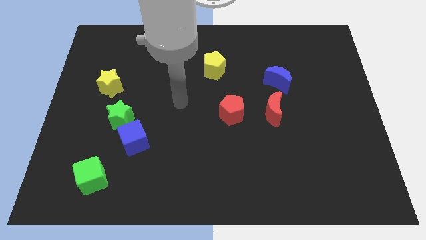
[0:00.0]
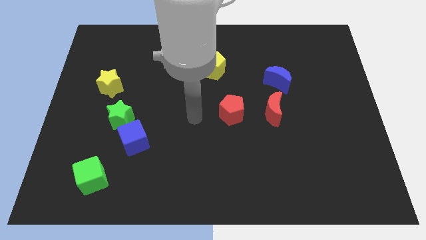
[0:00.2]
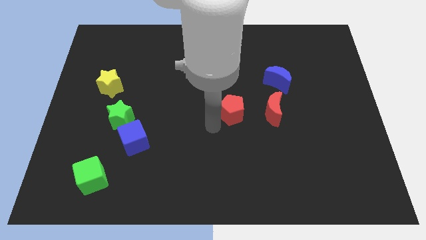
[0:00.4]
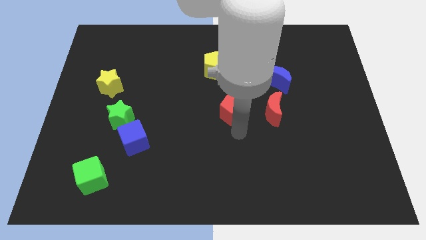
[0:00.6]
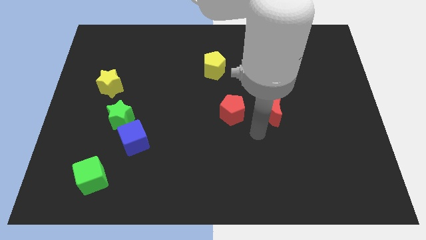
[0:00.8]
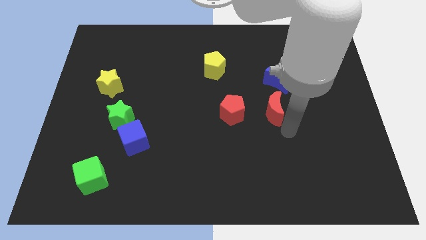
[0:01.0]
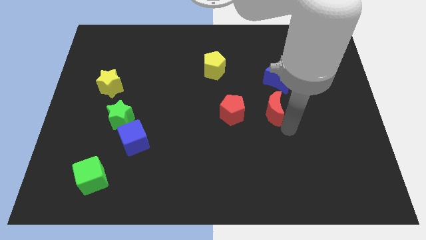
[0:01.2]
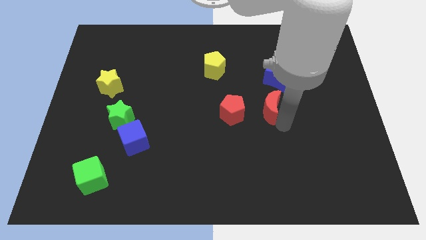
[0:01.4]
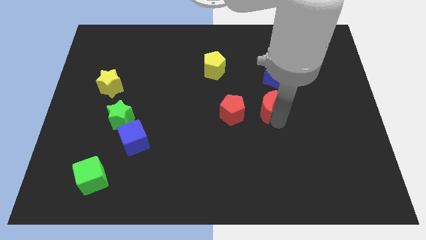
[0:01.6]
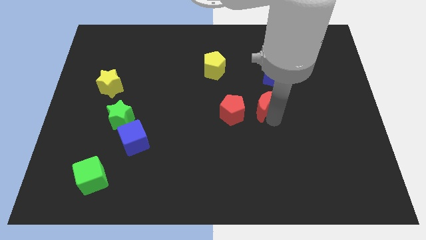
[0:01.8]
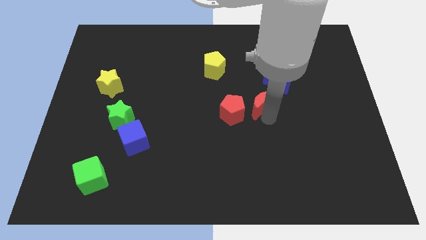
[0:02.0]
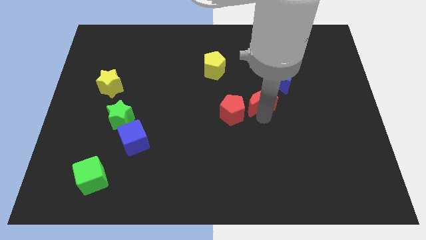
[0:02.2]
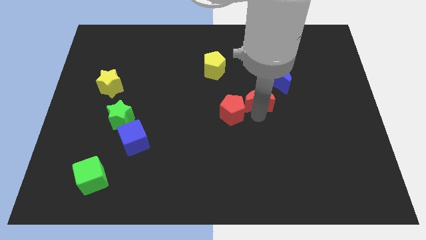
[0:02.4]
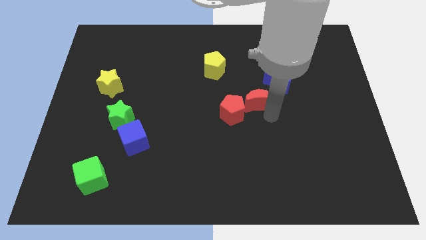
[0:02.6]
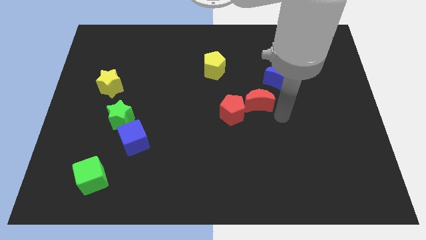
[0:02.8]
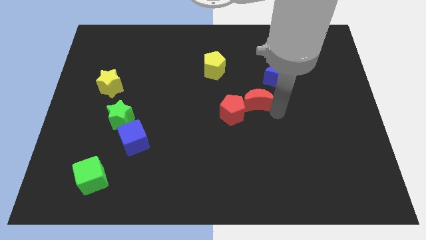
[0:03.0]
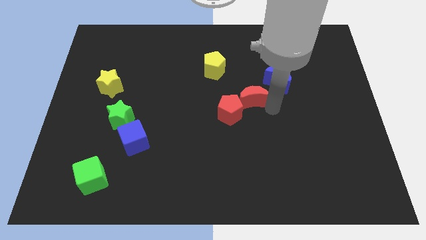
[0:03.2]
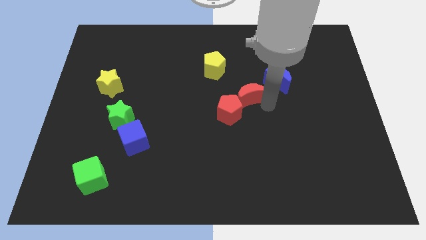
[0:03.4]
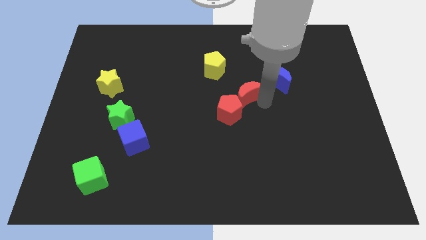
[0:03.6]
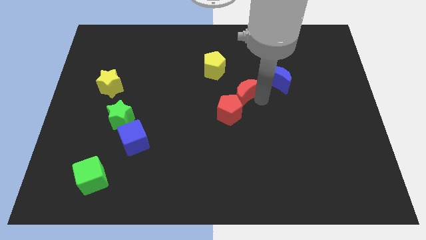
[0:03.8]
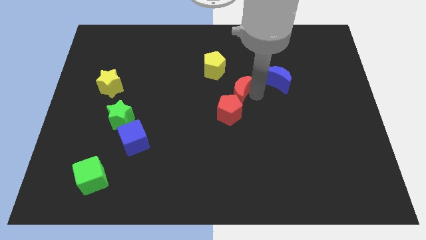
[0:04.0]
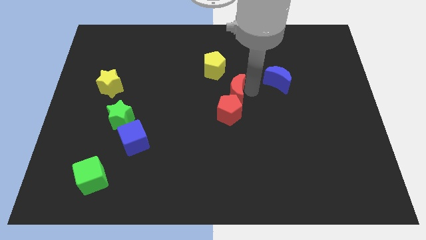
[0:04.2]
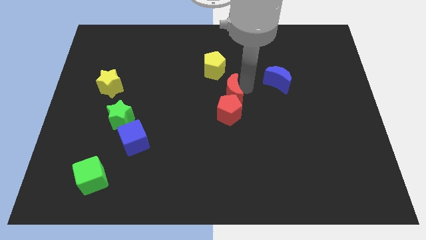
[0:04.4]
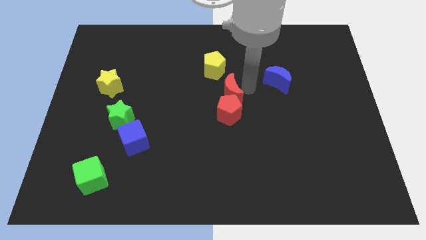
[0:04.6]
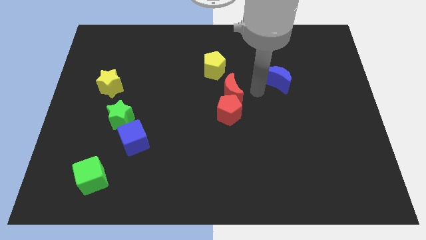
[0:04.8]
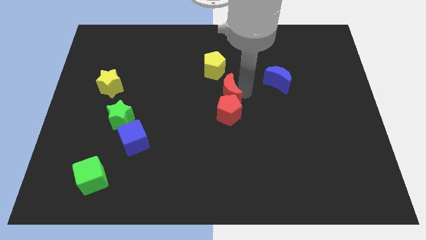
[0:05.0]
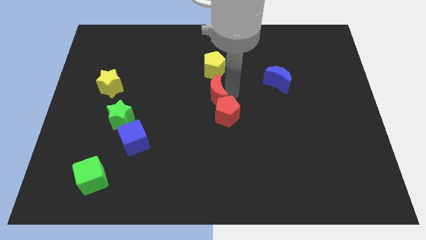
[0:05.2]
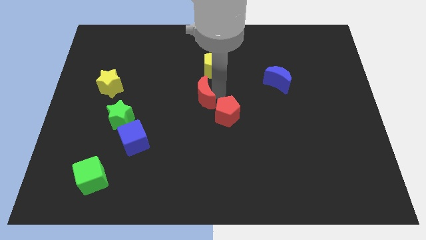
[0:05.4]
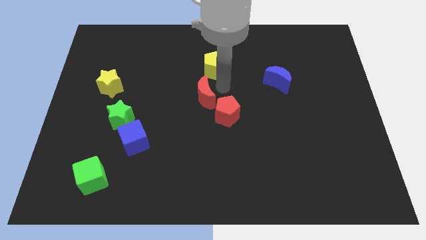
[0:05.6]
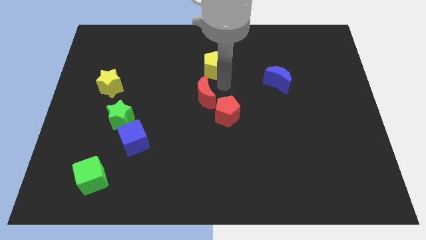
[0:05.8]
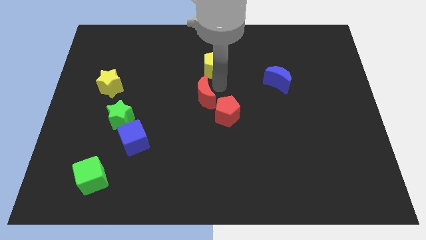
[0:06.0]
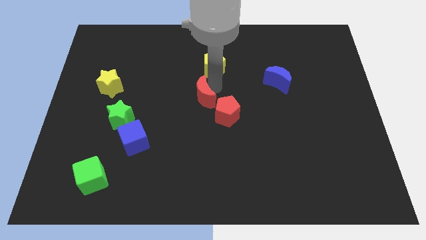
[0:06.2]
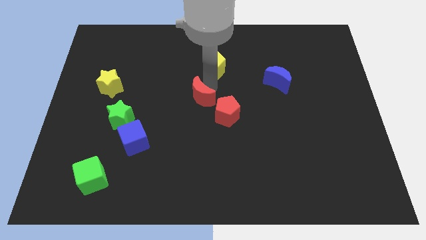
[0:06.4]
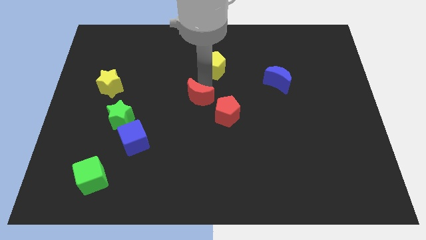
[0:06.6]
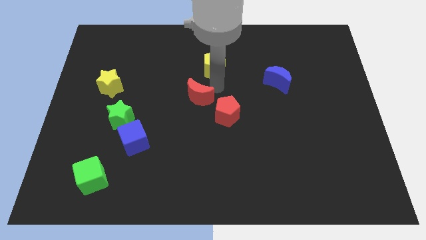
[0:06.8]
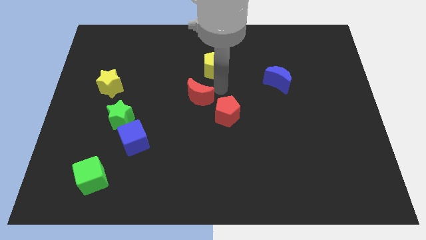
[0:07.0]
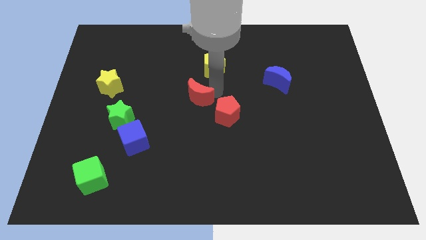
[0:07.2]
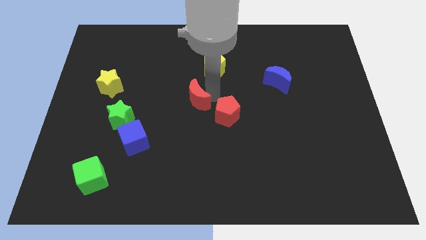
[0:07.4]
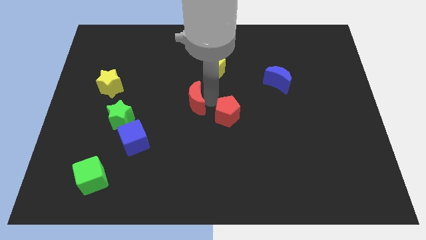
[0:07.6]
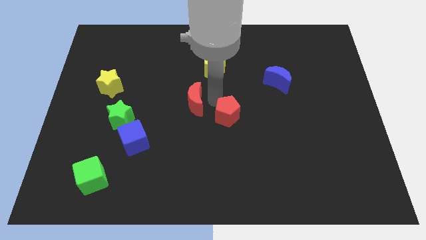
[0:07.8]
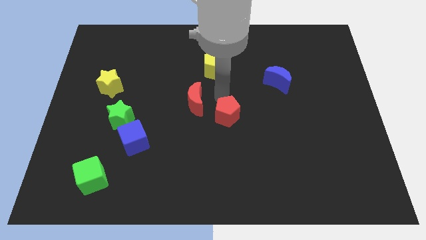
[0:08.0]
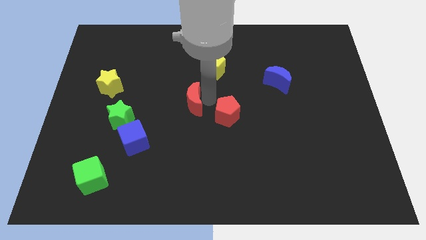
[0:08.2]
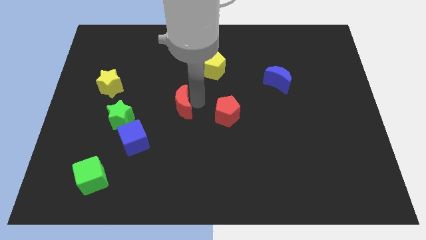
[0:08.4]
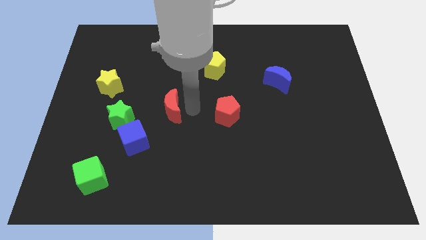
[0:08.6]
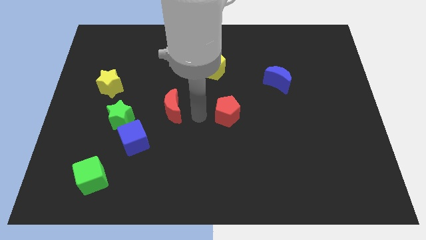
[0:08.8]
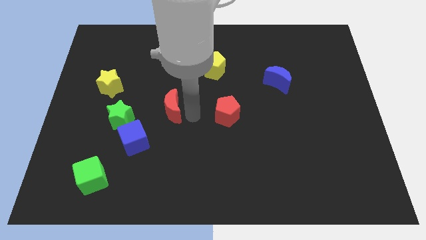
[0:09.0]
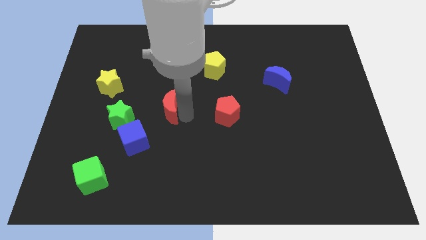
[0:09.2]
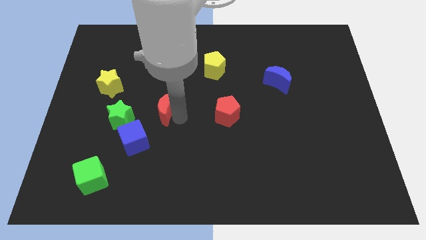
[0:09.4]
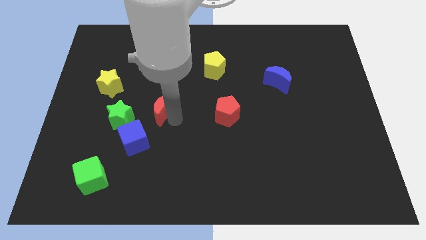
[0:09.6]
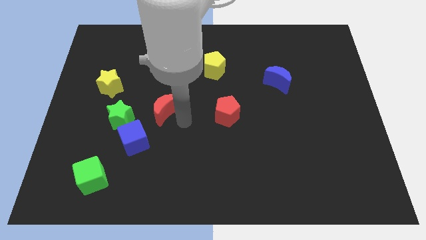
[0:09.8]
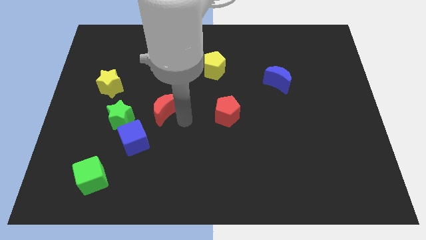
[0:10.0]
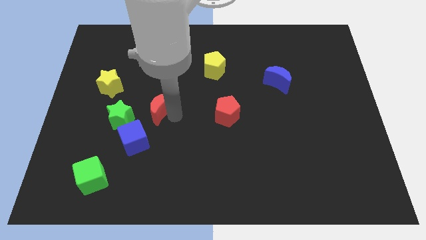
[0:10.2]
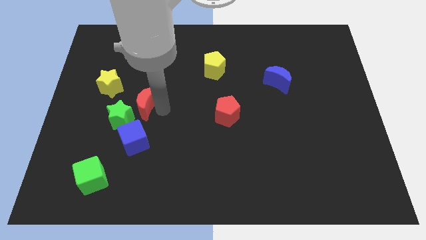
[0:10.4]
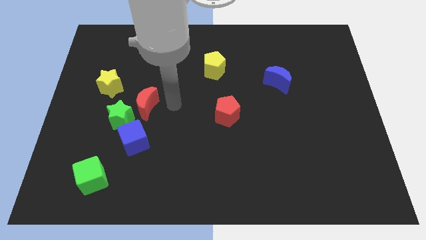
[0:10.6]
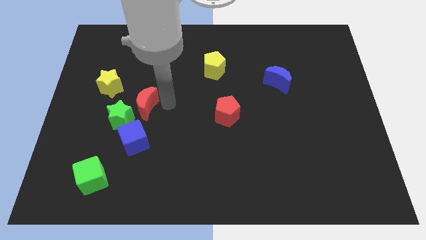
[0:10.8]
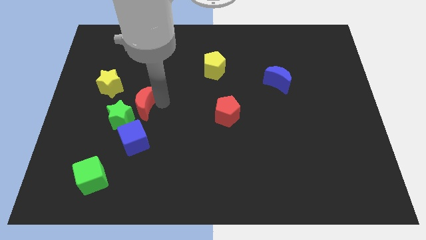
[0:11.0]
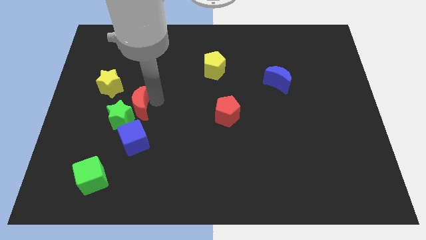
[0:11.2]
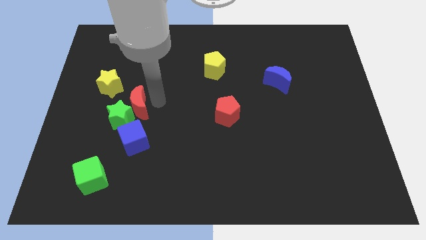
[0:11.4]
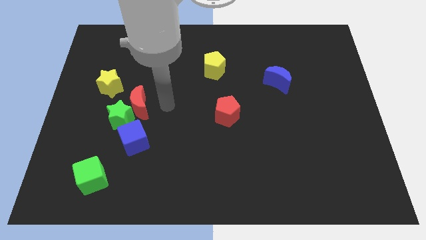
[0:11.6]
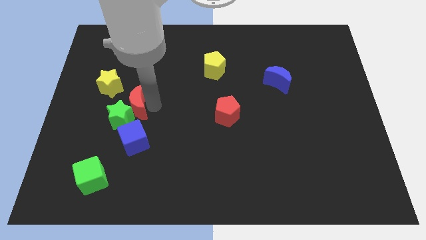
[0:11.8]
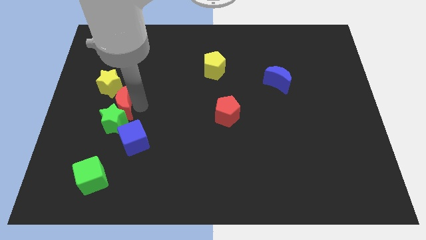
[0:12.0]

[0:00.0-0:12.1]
move the red moon diagonally up and to the left of the blue cube

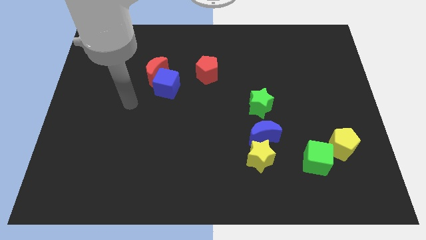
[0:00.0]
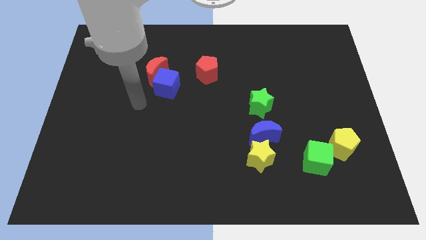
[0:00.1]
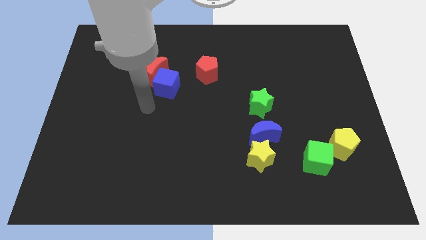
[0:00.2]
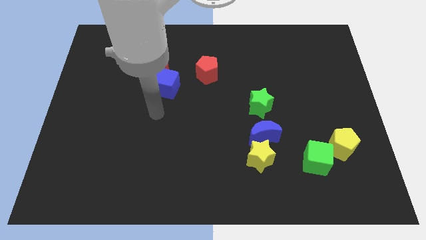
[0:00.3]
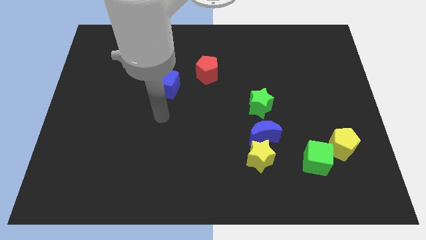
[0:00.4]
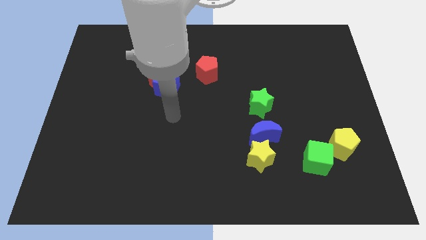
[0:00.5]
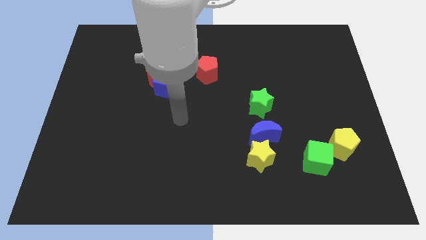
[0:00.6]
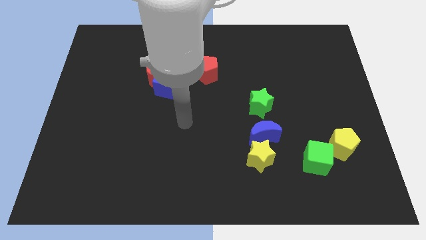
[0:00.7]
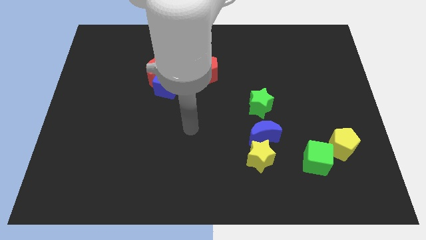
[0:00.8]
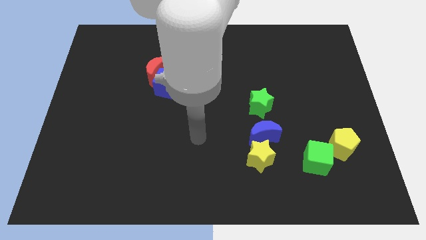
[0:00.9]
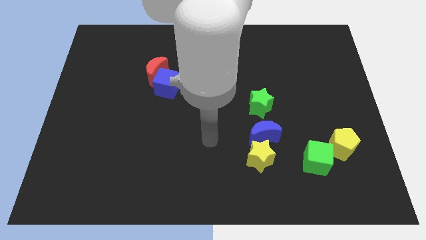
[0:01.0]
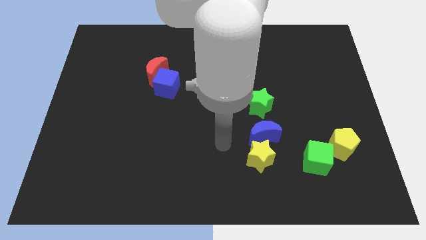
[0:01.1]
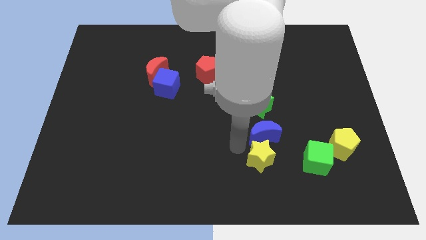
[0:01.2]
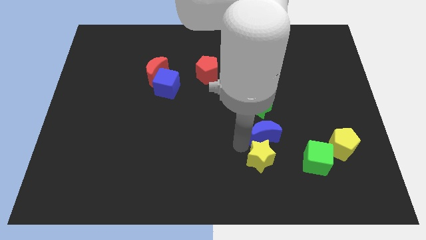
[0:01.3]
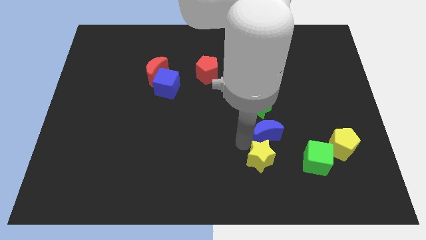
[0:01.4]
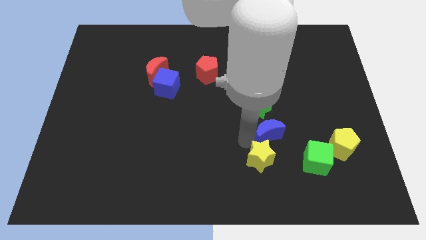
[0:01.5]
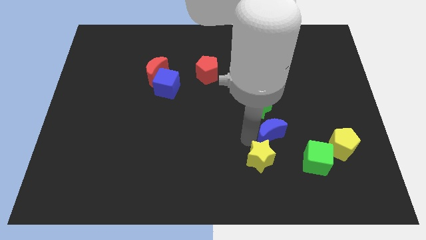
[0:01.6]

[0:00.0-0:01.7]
slide the blue moon to the bottom right of the green star
